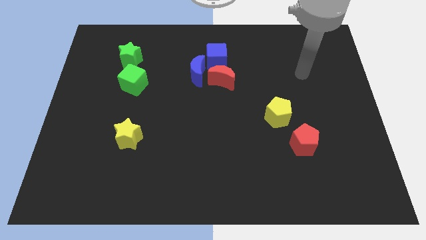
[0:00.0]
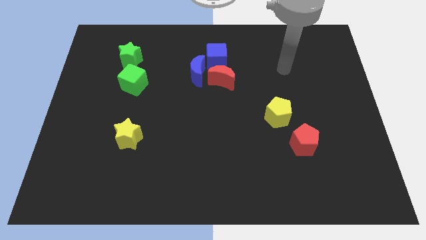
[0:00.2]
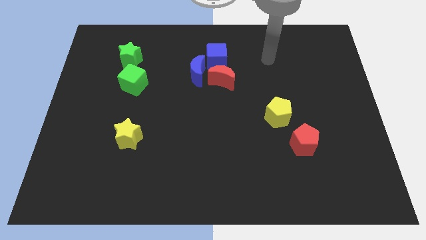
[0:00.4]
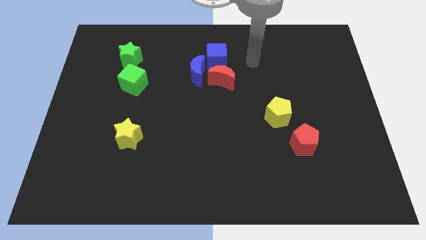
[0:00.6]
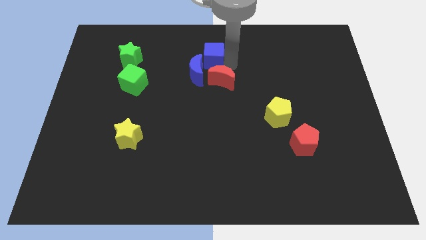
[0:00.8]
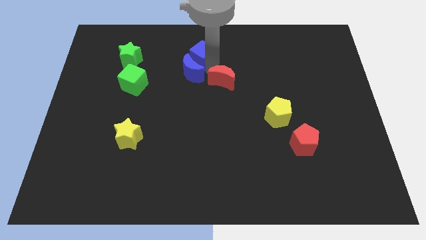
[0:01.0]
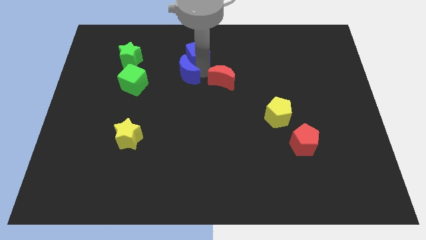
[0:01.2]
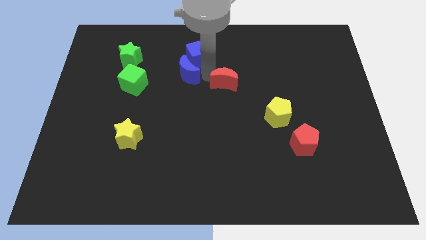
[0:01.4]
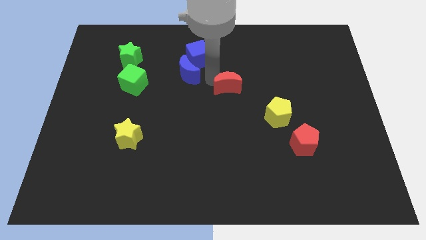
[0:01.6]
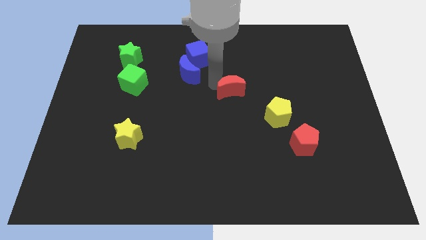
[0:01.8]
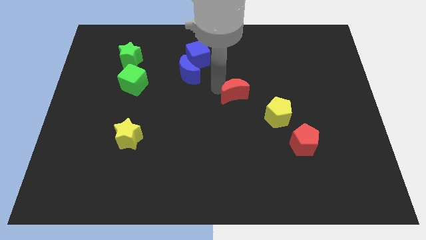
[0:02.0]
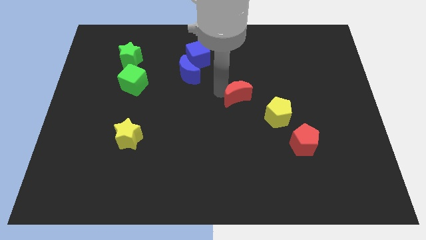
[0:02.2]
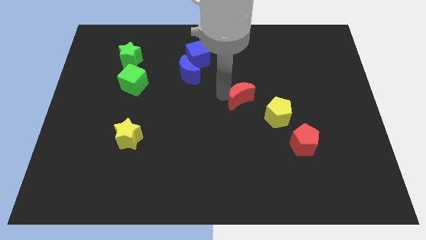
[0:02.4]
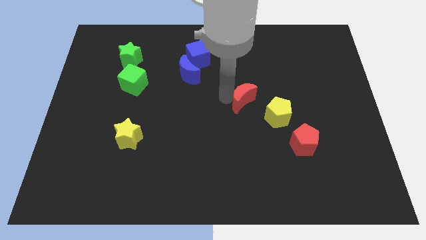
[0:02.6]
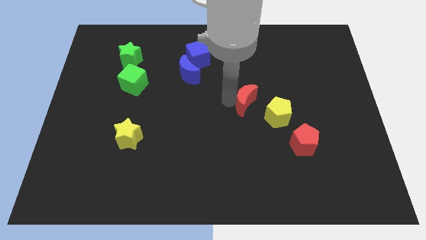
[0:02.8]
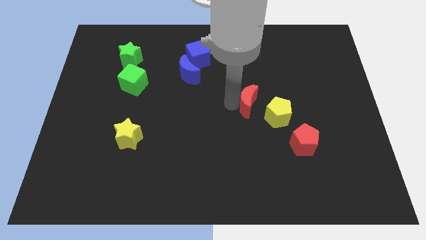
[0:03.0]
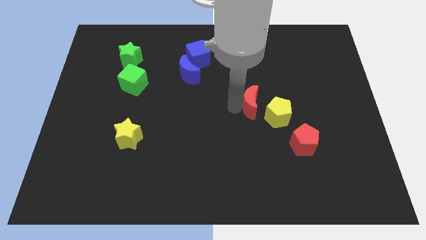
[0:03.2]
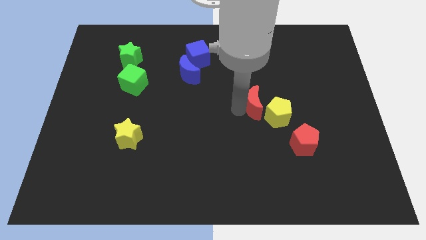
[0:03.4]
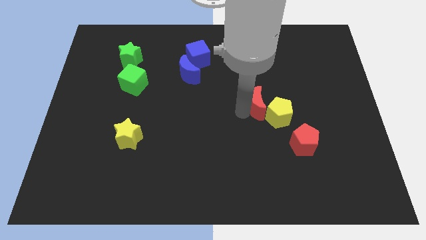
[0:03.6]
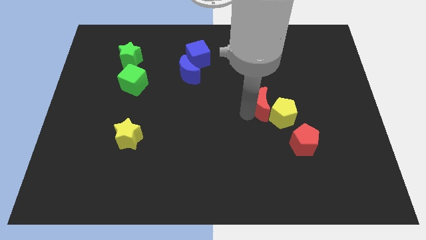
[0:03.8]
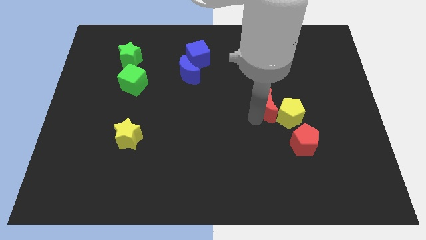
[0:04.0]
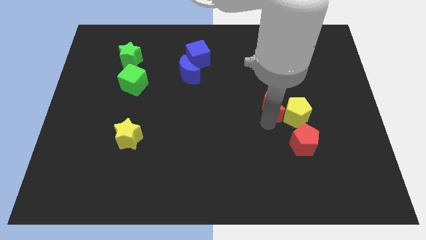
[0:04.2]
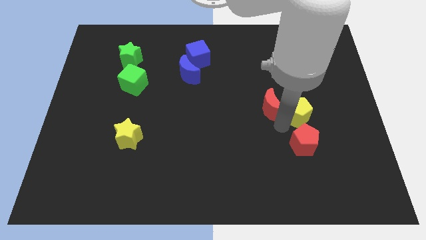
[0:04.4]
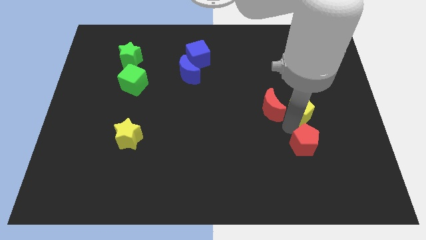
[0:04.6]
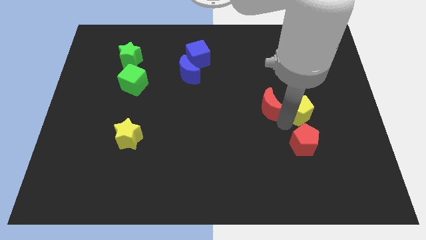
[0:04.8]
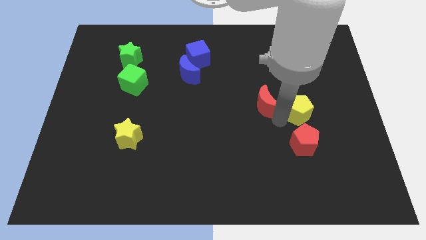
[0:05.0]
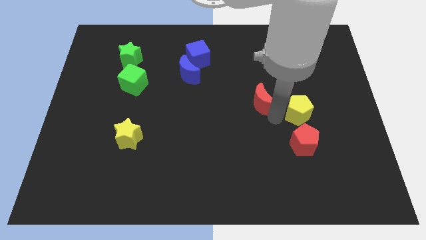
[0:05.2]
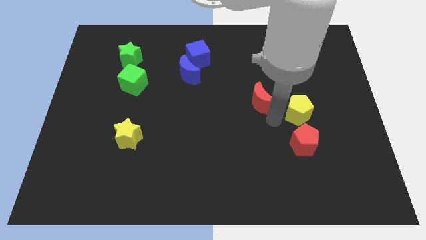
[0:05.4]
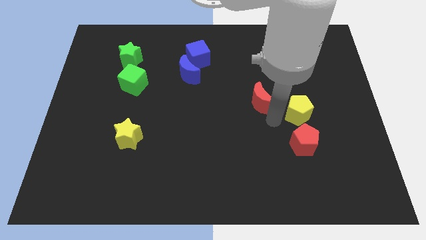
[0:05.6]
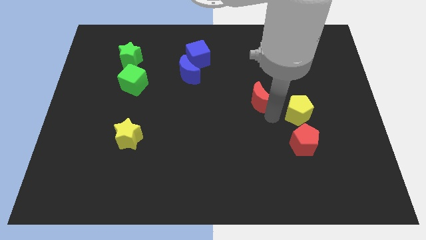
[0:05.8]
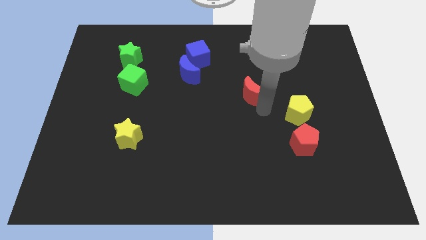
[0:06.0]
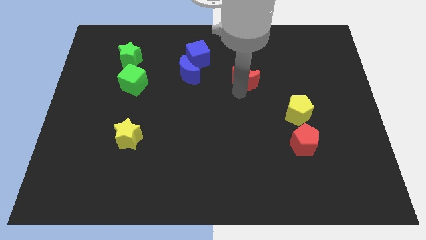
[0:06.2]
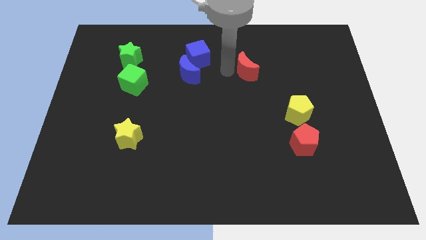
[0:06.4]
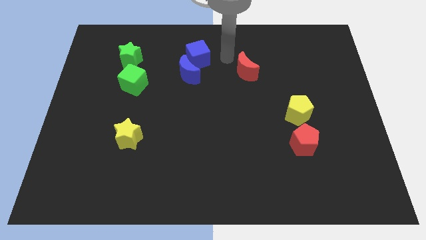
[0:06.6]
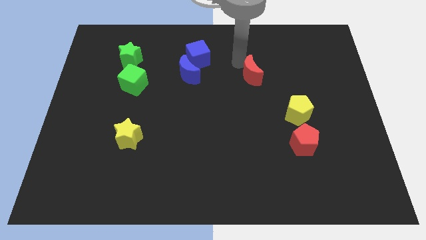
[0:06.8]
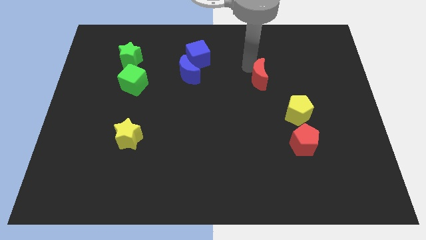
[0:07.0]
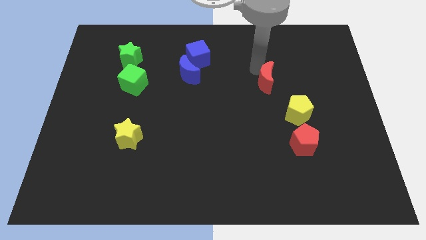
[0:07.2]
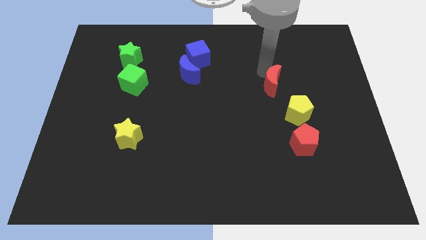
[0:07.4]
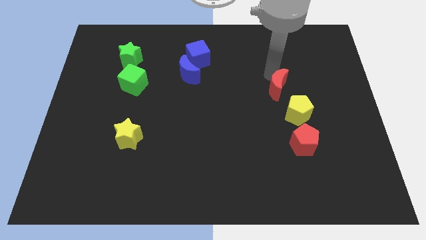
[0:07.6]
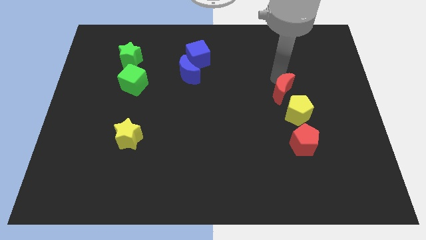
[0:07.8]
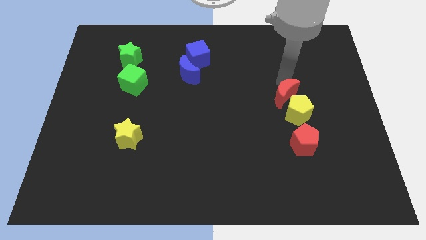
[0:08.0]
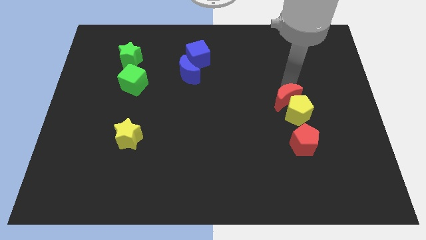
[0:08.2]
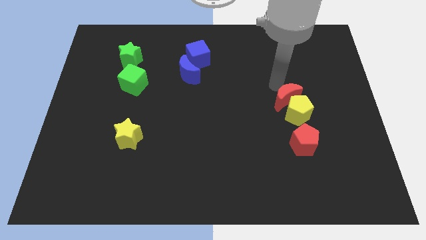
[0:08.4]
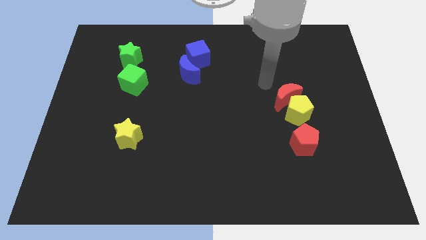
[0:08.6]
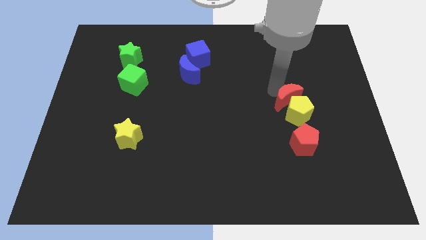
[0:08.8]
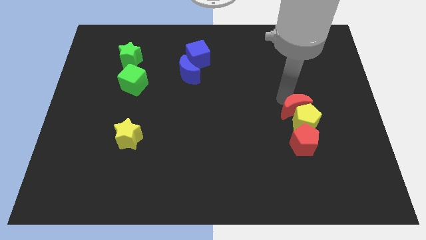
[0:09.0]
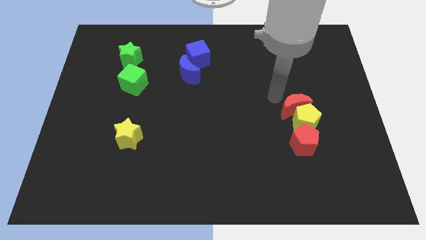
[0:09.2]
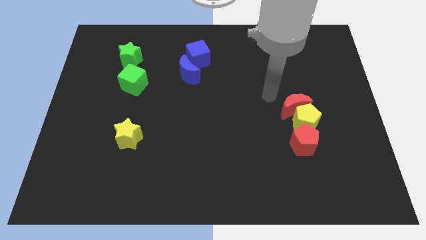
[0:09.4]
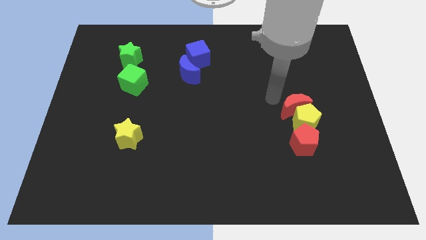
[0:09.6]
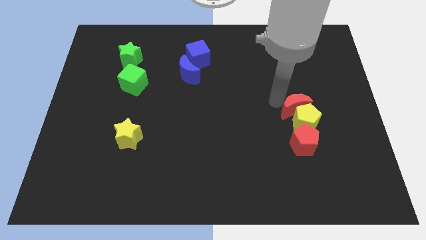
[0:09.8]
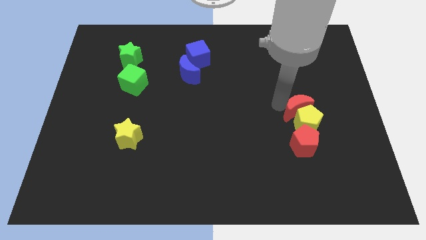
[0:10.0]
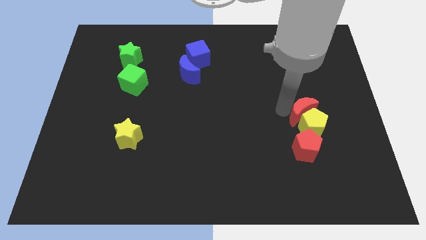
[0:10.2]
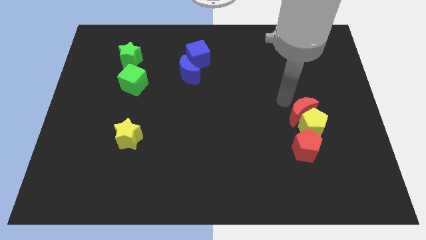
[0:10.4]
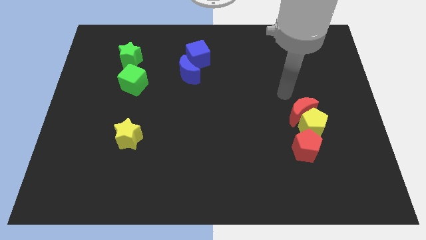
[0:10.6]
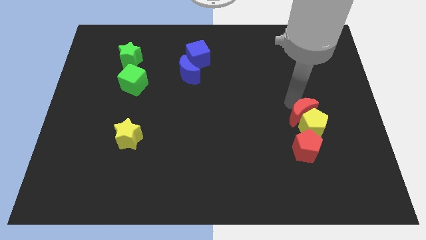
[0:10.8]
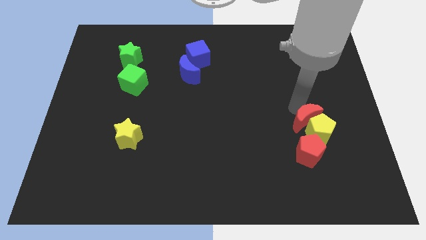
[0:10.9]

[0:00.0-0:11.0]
move the red moon down and right diagonally

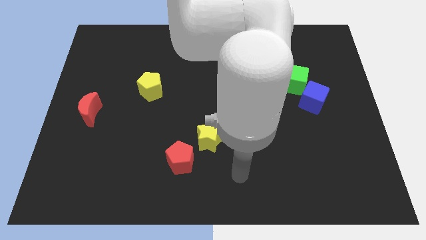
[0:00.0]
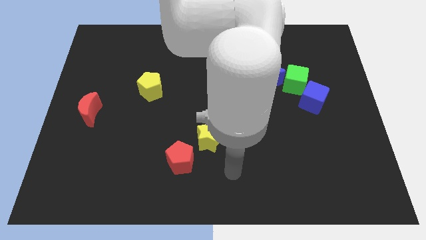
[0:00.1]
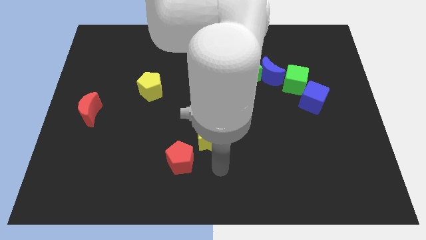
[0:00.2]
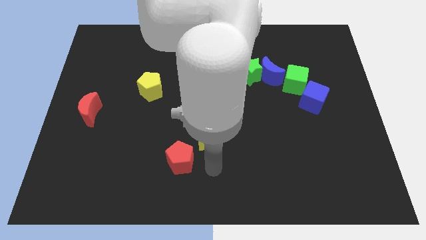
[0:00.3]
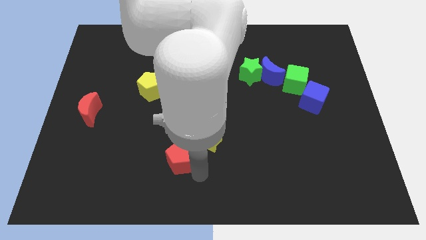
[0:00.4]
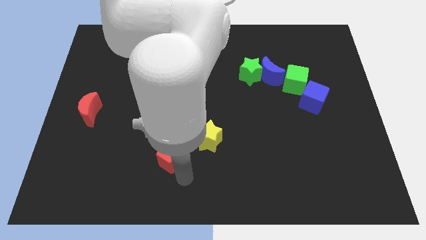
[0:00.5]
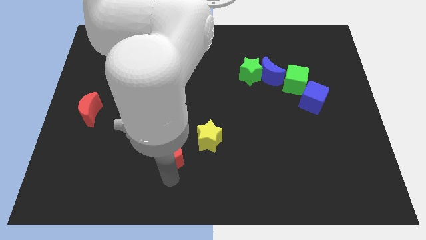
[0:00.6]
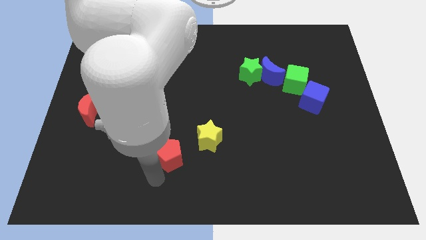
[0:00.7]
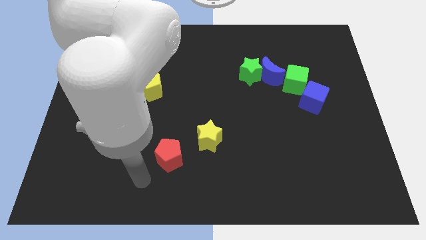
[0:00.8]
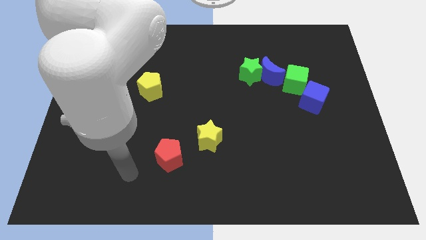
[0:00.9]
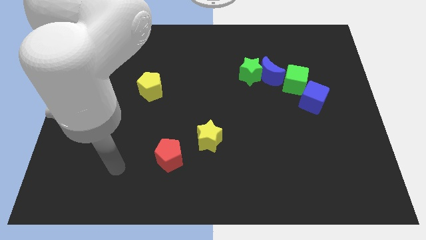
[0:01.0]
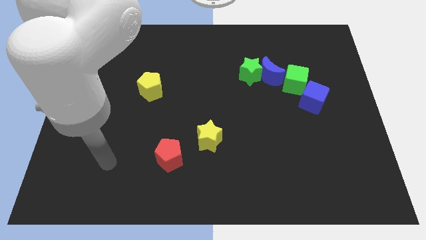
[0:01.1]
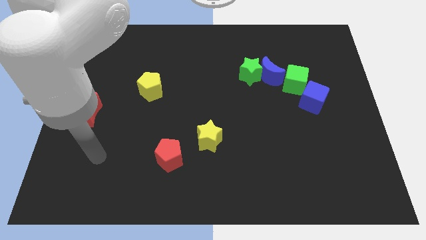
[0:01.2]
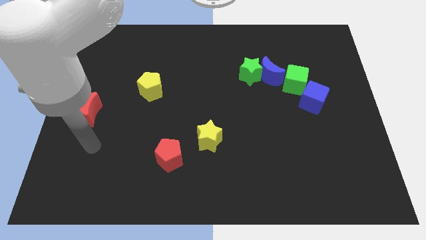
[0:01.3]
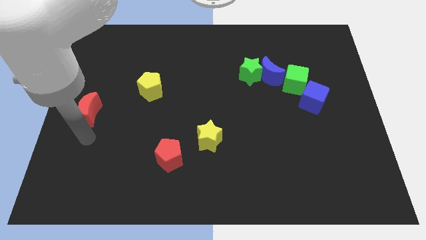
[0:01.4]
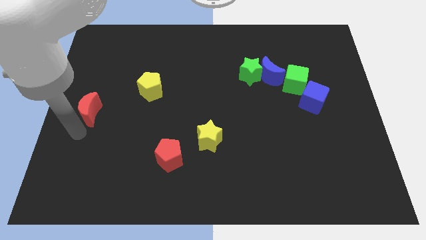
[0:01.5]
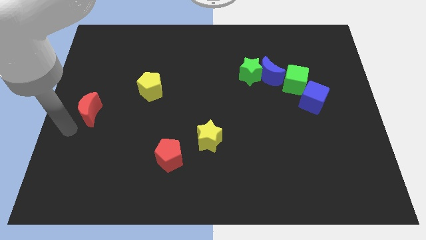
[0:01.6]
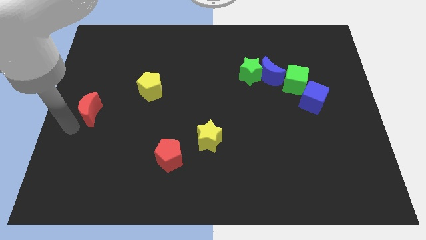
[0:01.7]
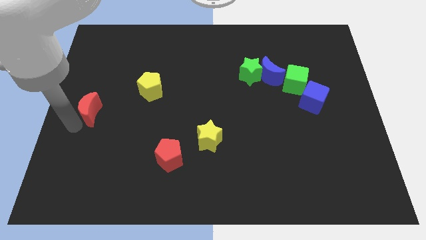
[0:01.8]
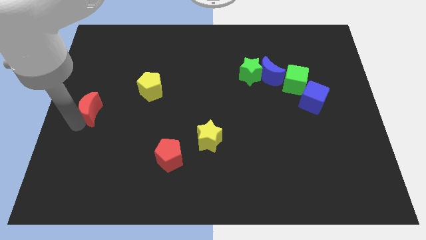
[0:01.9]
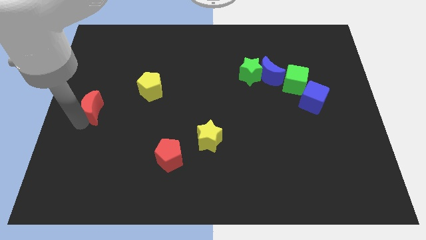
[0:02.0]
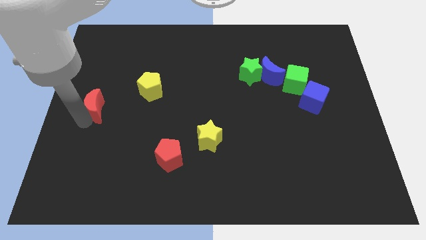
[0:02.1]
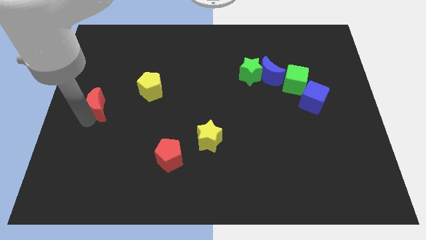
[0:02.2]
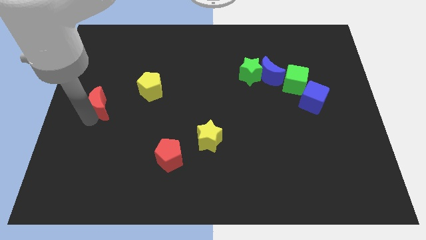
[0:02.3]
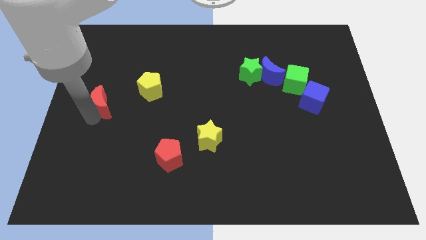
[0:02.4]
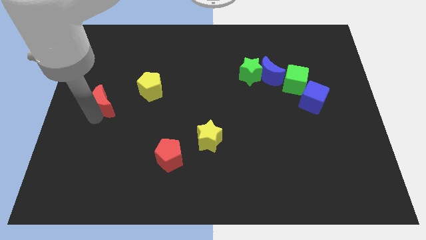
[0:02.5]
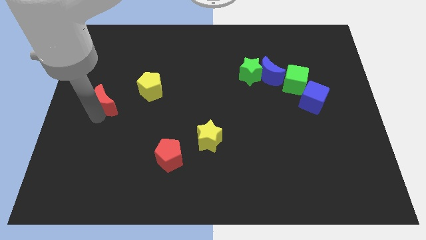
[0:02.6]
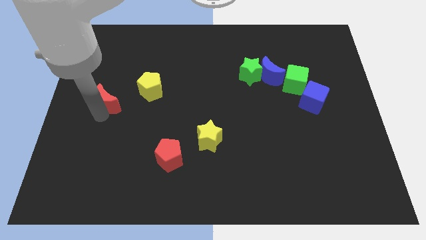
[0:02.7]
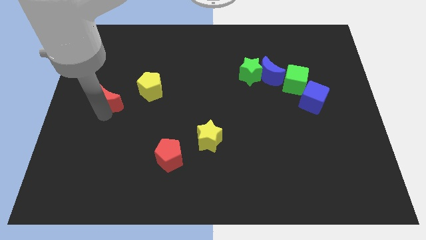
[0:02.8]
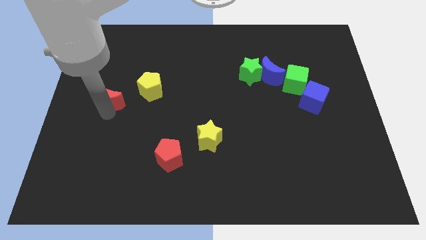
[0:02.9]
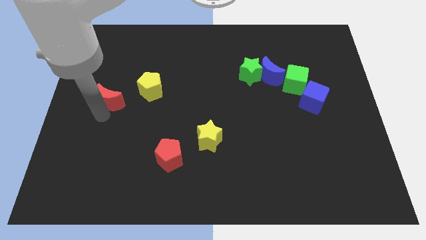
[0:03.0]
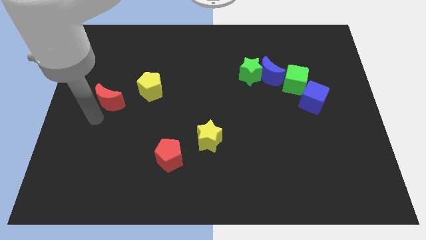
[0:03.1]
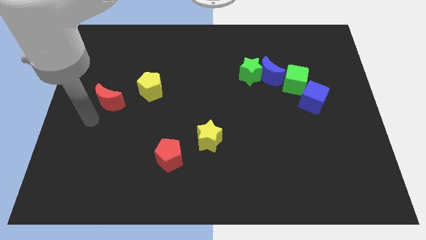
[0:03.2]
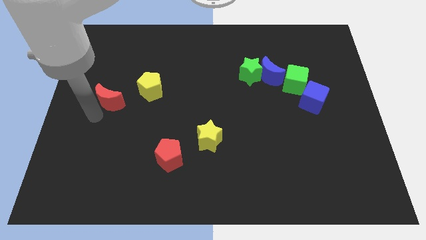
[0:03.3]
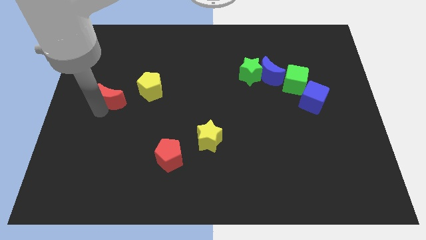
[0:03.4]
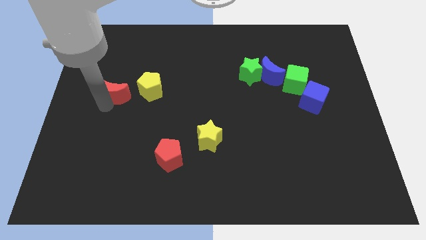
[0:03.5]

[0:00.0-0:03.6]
slightly move the red moon upwards and right diagonally
